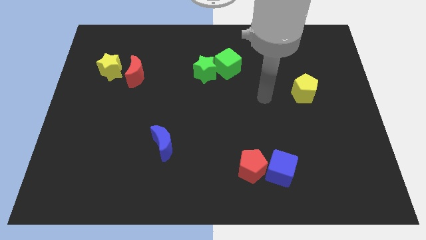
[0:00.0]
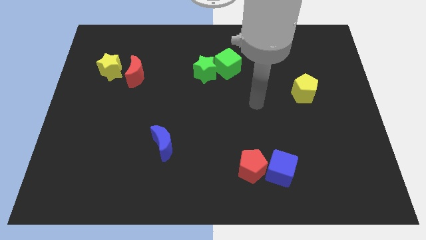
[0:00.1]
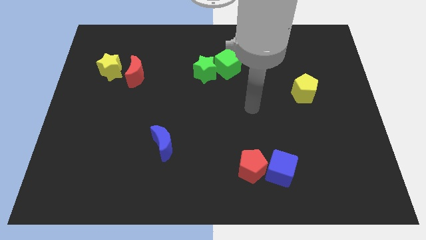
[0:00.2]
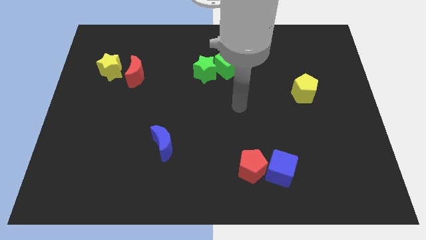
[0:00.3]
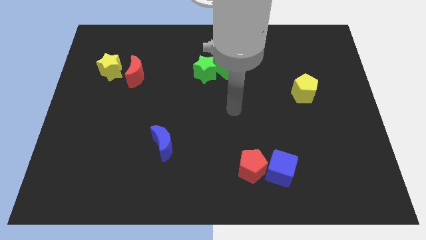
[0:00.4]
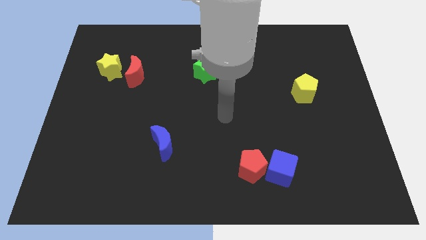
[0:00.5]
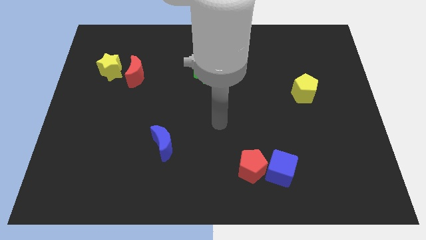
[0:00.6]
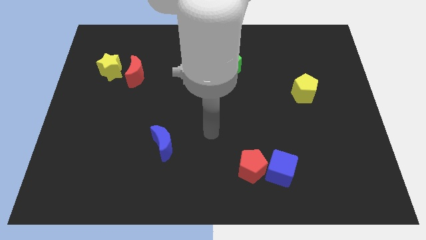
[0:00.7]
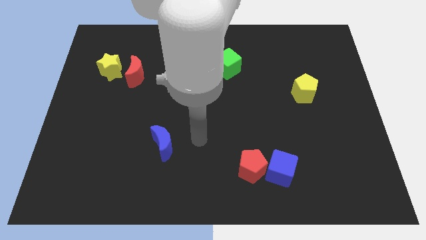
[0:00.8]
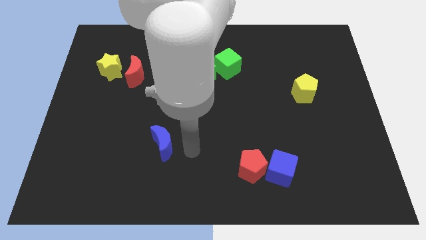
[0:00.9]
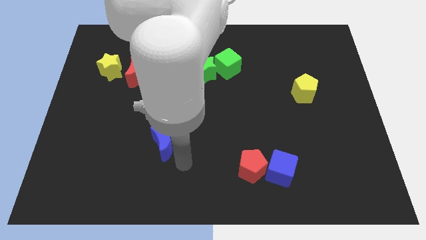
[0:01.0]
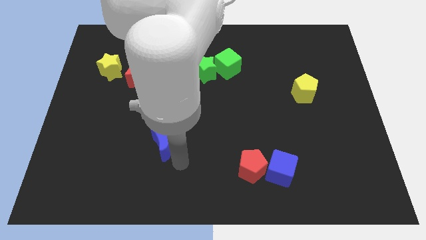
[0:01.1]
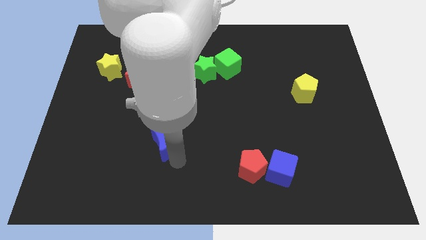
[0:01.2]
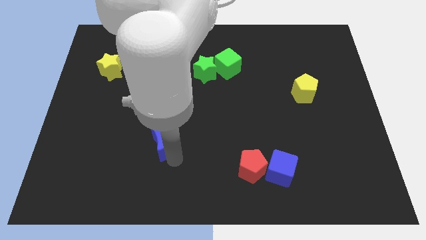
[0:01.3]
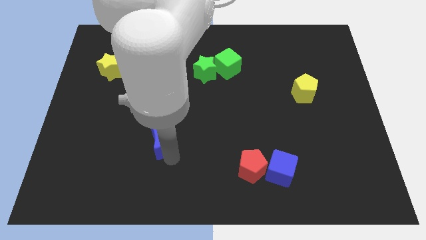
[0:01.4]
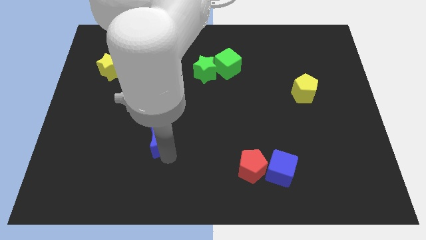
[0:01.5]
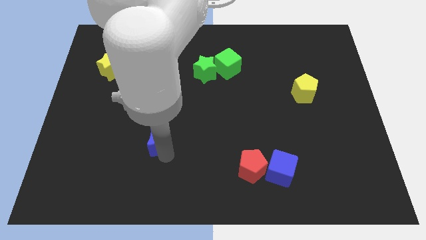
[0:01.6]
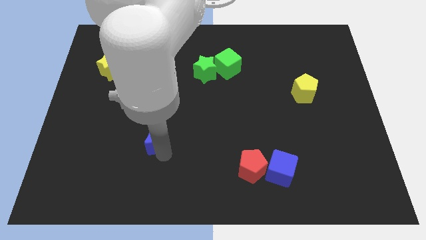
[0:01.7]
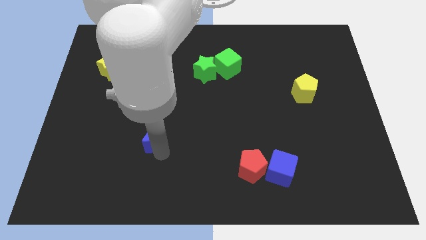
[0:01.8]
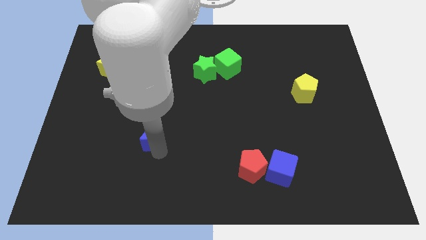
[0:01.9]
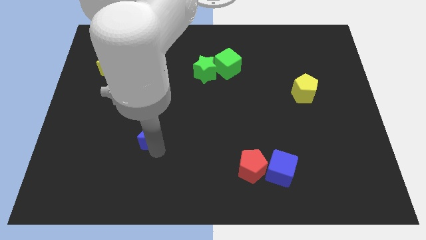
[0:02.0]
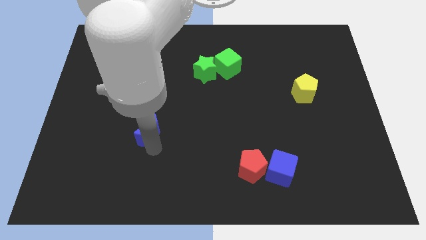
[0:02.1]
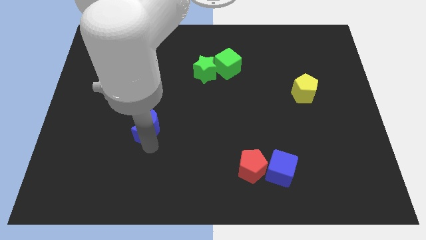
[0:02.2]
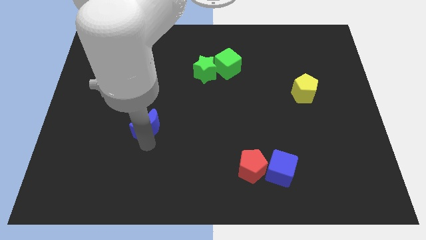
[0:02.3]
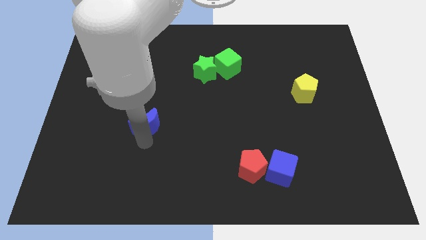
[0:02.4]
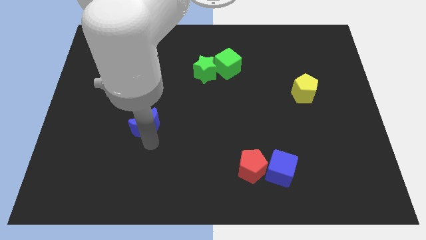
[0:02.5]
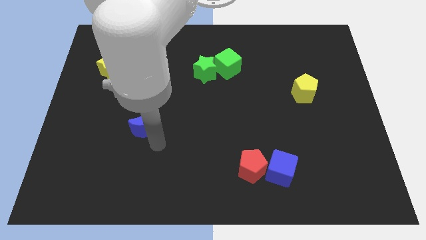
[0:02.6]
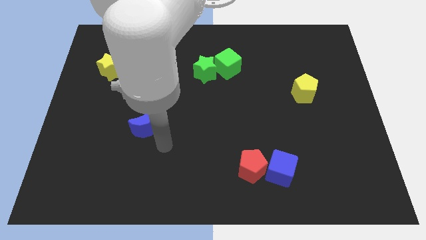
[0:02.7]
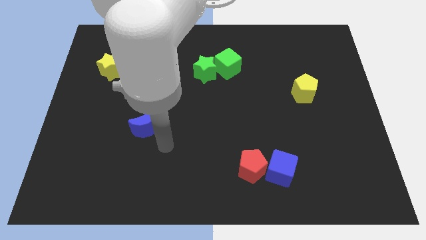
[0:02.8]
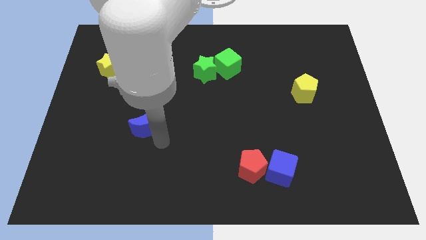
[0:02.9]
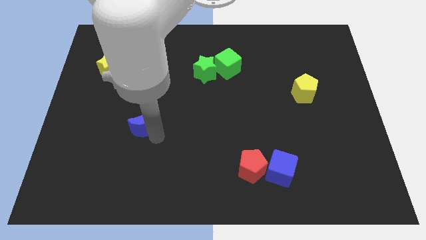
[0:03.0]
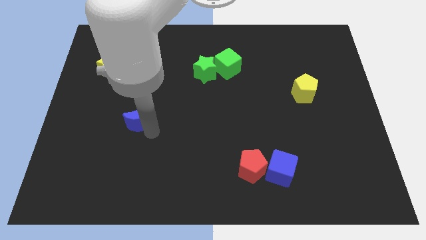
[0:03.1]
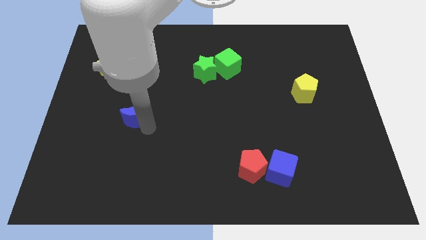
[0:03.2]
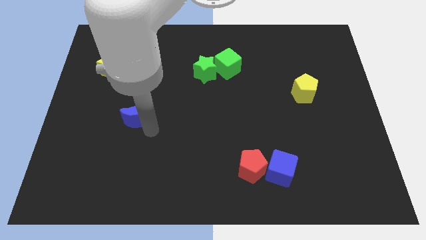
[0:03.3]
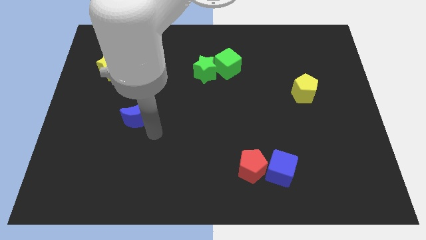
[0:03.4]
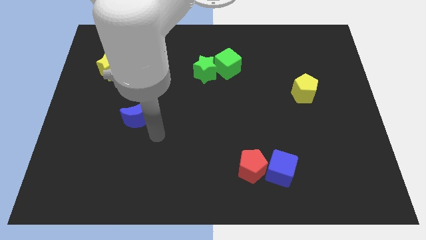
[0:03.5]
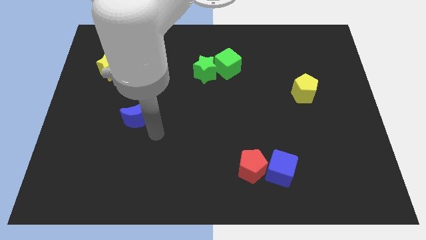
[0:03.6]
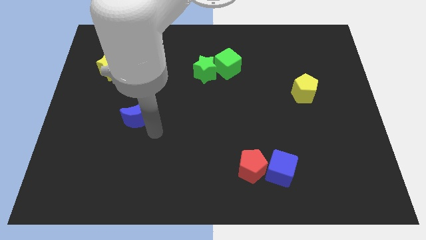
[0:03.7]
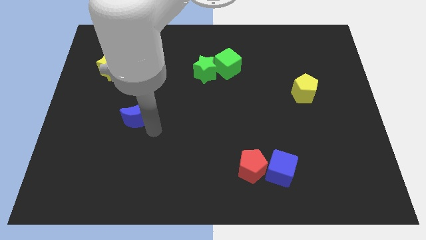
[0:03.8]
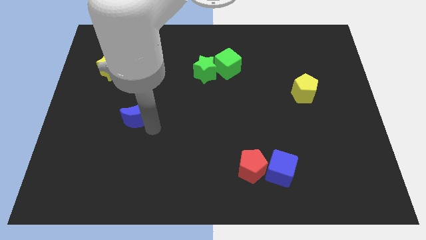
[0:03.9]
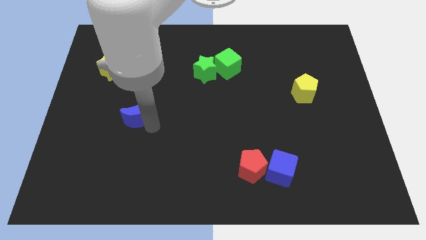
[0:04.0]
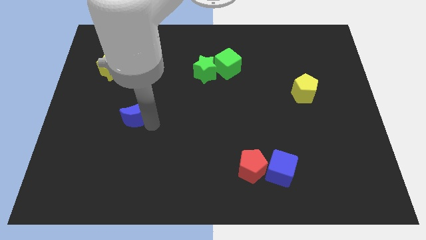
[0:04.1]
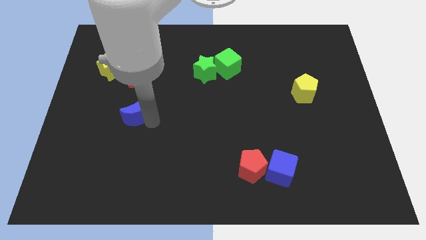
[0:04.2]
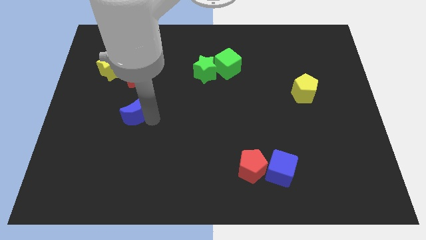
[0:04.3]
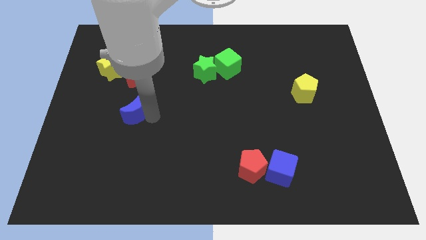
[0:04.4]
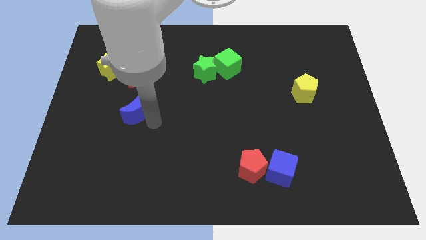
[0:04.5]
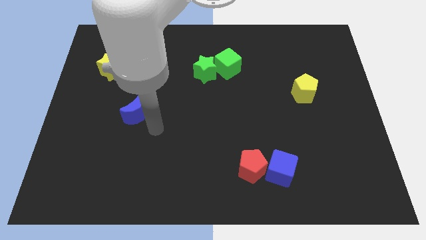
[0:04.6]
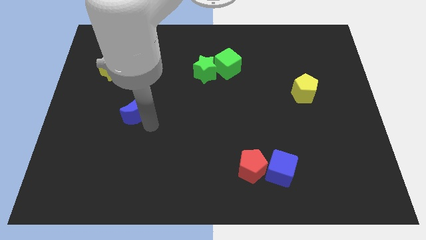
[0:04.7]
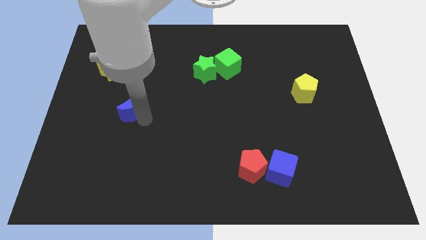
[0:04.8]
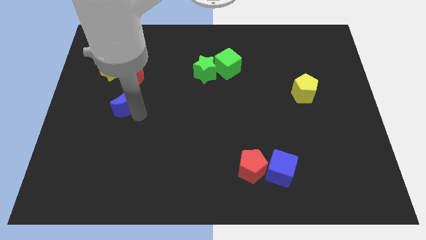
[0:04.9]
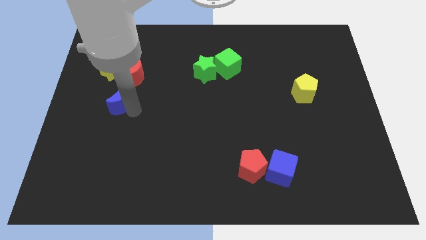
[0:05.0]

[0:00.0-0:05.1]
slide the blue moon to the bottom left side of the red moon

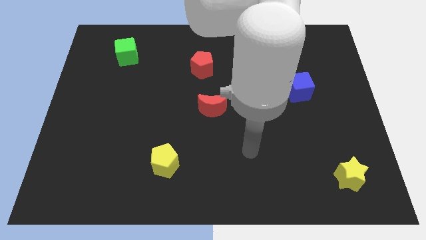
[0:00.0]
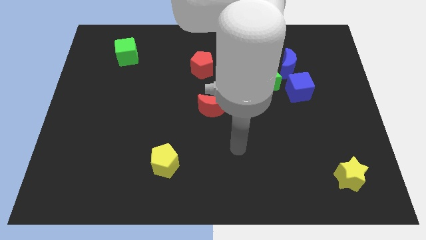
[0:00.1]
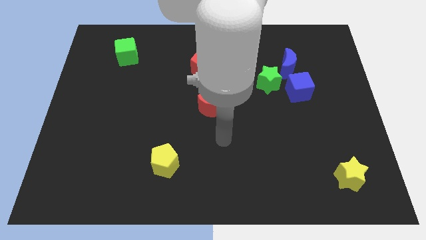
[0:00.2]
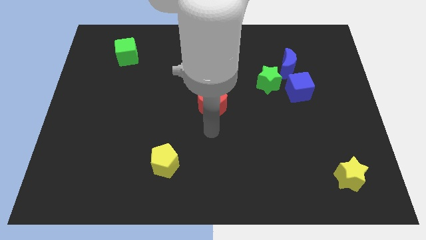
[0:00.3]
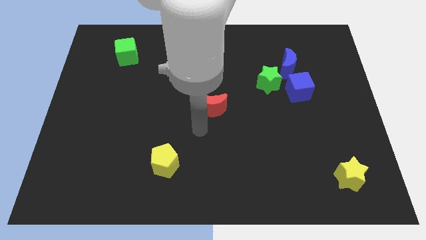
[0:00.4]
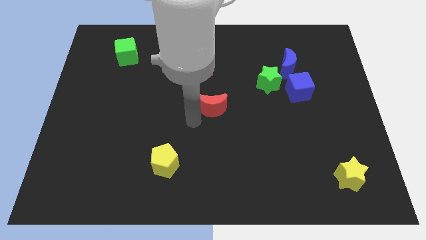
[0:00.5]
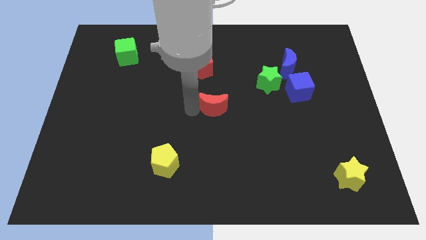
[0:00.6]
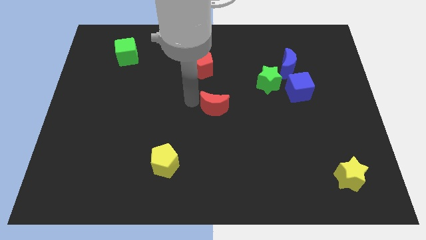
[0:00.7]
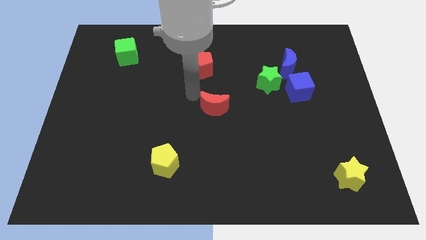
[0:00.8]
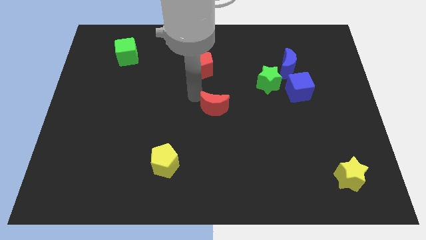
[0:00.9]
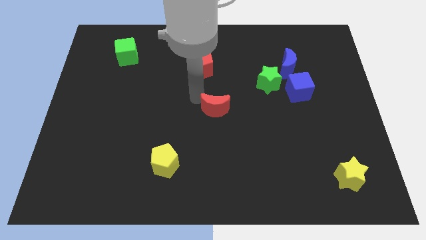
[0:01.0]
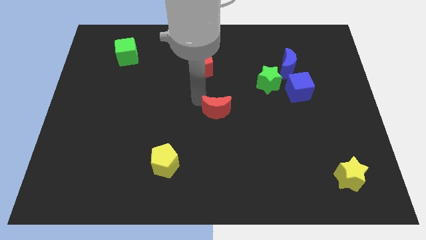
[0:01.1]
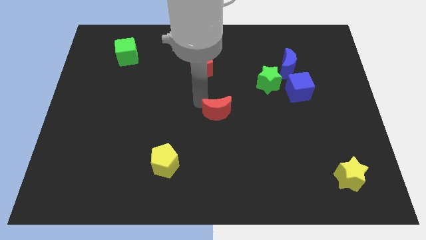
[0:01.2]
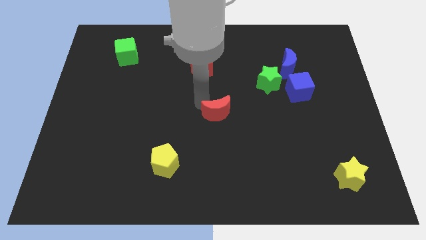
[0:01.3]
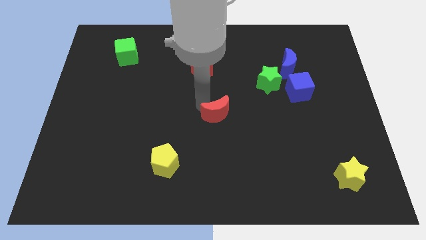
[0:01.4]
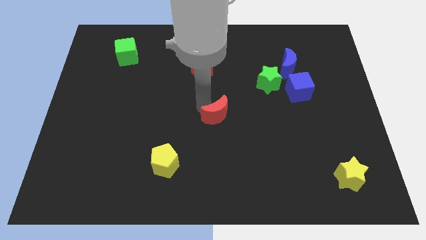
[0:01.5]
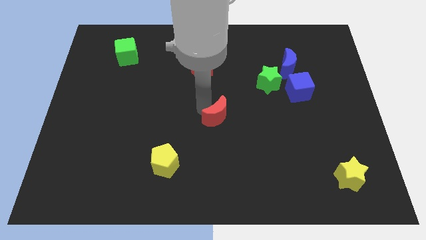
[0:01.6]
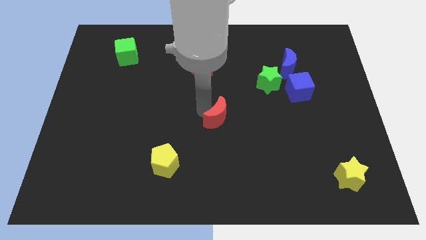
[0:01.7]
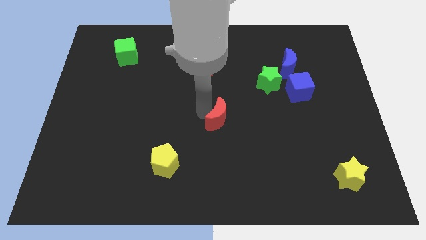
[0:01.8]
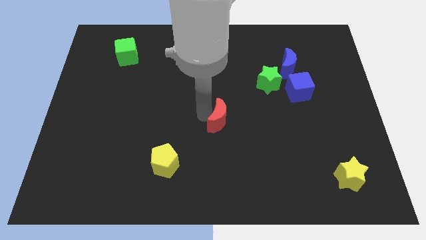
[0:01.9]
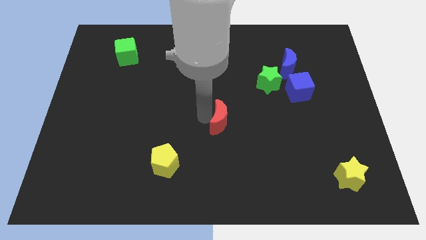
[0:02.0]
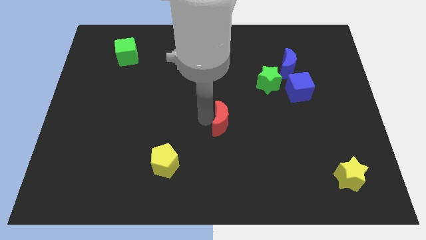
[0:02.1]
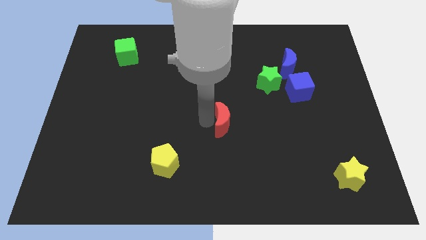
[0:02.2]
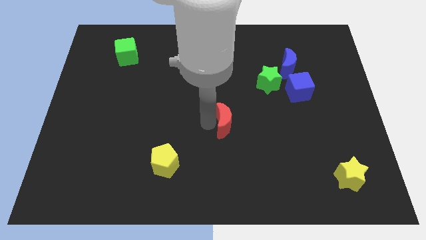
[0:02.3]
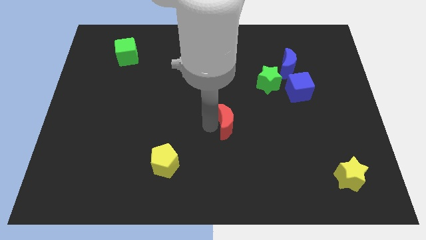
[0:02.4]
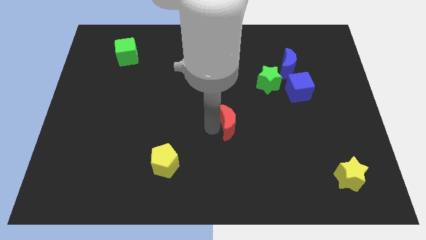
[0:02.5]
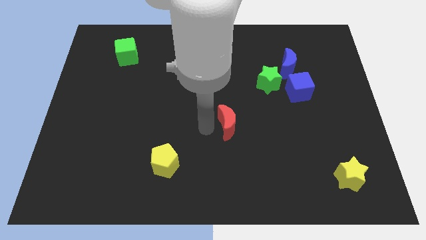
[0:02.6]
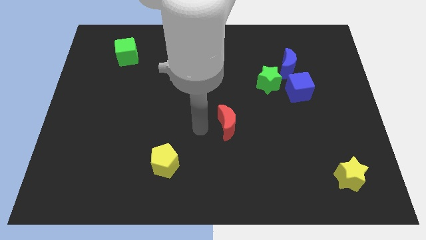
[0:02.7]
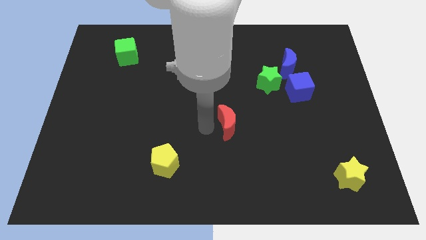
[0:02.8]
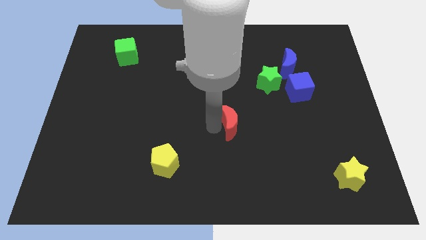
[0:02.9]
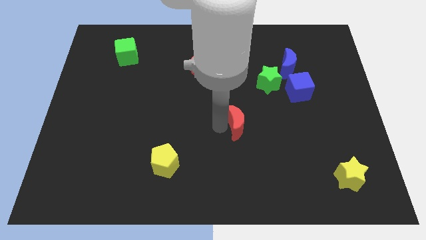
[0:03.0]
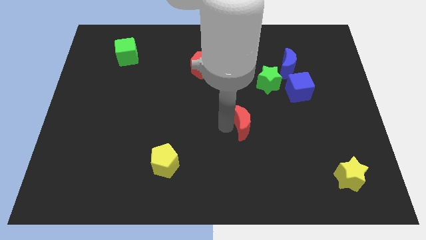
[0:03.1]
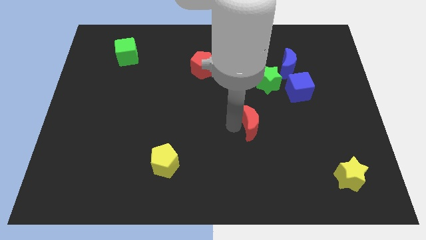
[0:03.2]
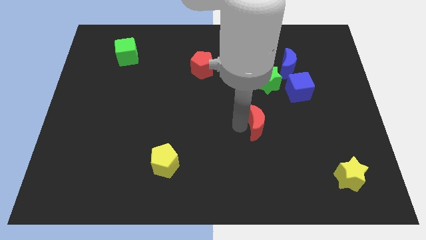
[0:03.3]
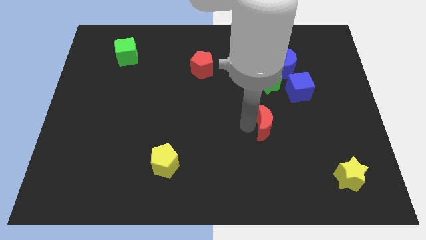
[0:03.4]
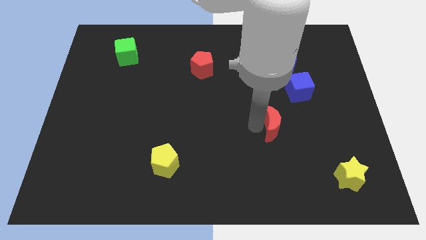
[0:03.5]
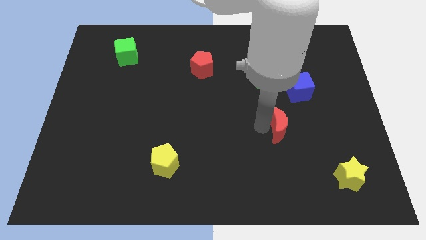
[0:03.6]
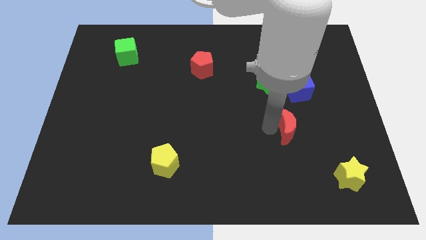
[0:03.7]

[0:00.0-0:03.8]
put the red moon to the bottom of the blue cube
